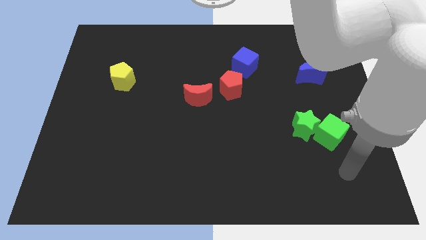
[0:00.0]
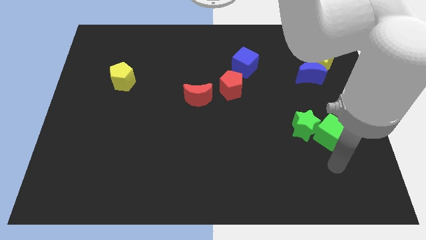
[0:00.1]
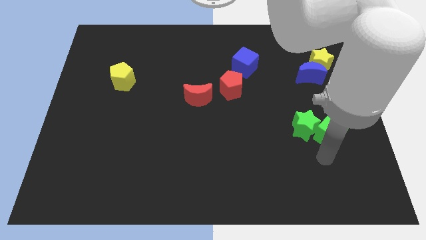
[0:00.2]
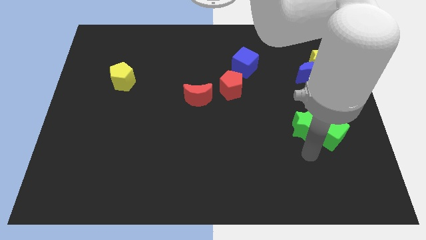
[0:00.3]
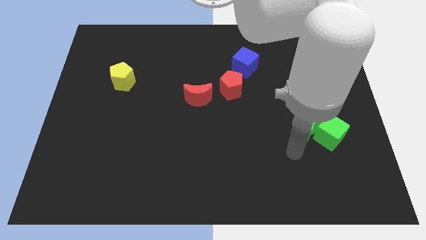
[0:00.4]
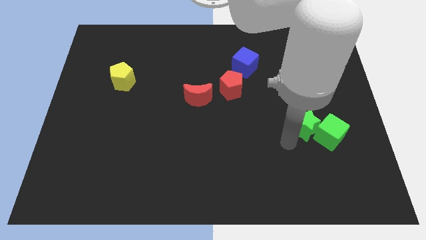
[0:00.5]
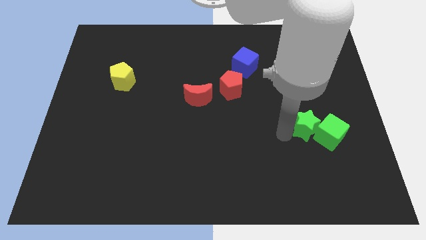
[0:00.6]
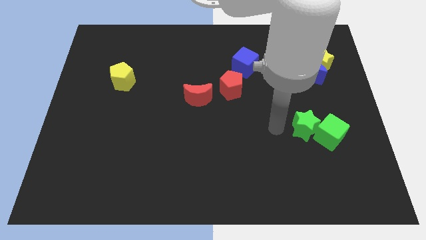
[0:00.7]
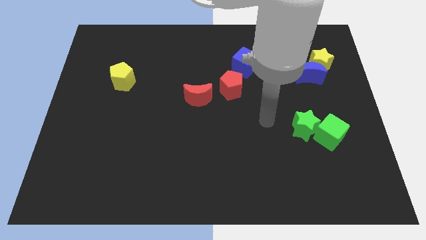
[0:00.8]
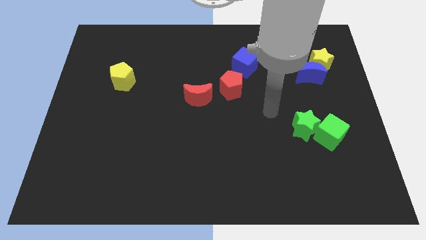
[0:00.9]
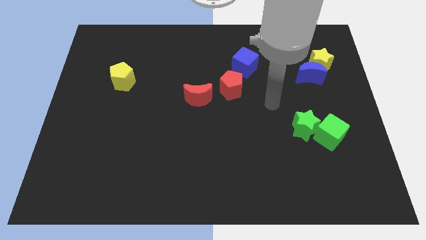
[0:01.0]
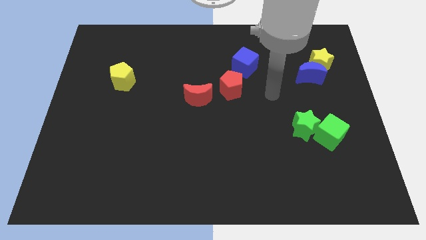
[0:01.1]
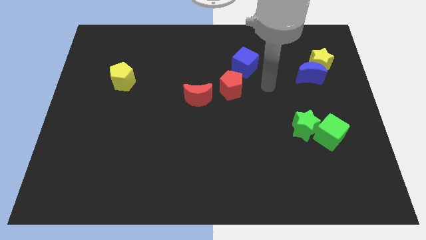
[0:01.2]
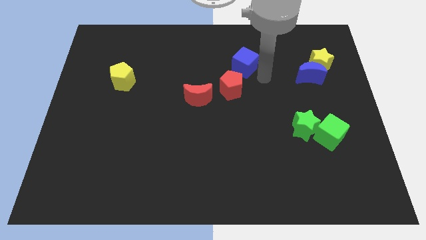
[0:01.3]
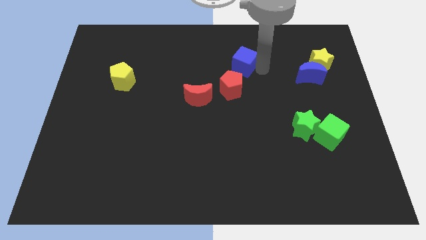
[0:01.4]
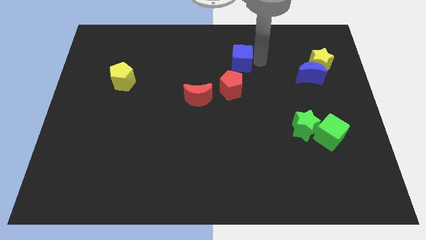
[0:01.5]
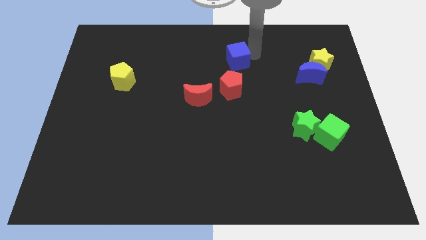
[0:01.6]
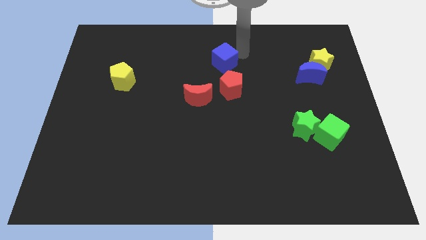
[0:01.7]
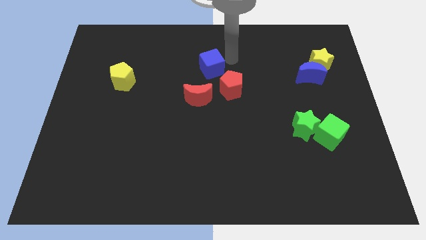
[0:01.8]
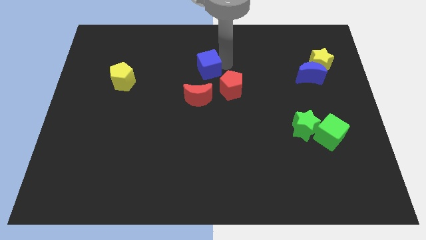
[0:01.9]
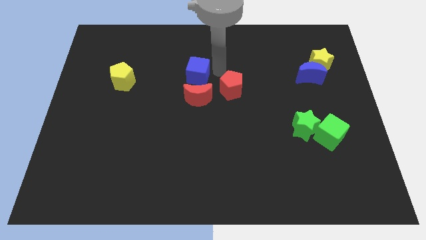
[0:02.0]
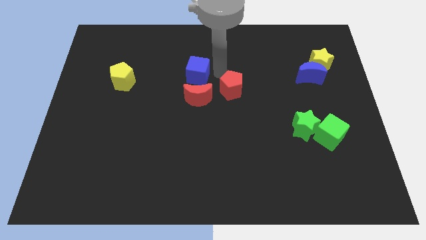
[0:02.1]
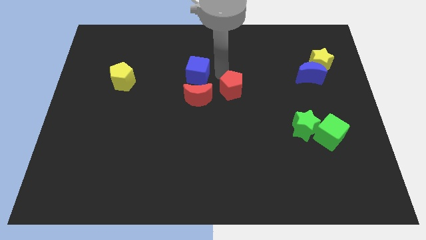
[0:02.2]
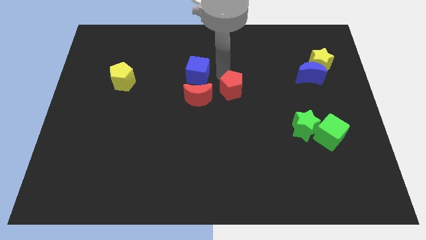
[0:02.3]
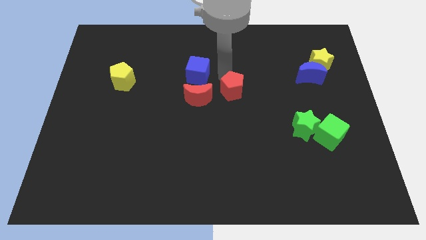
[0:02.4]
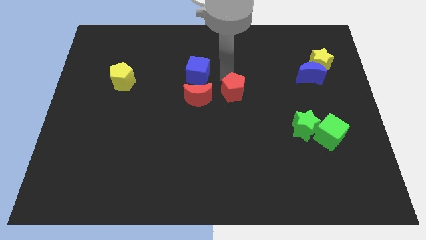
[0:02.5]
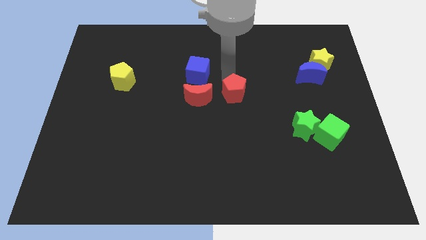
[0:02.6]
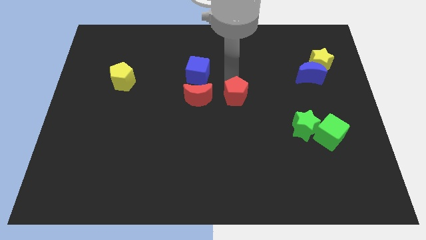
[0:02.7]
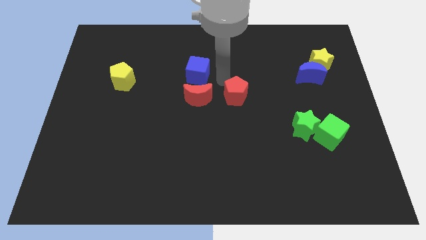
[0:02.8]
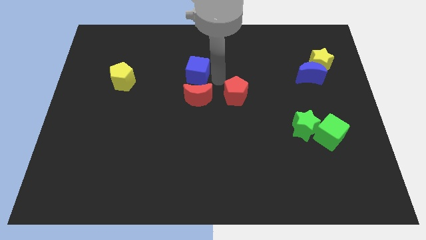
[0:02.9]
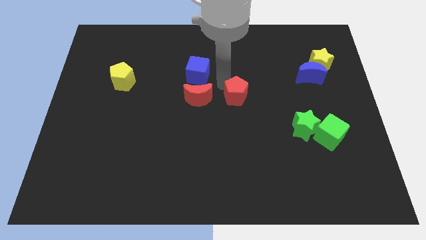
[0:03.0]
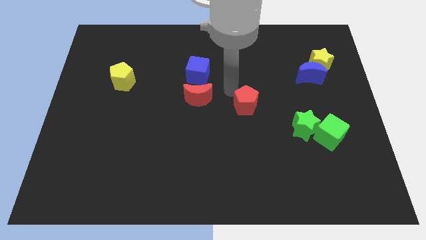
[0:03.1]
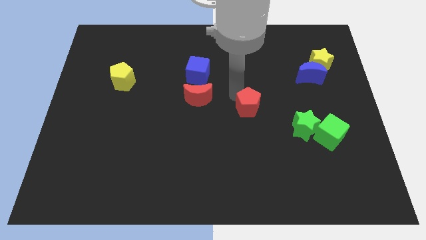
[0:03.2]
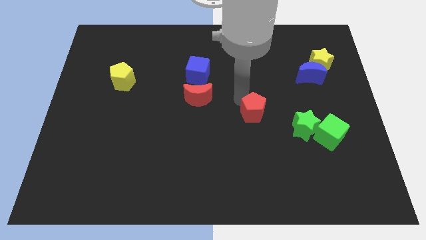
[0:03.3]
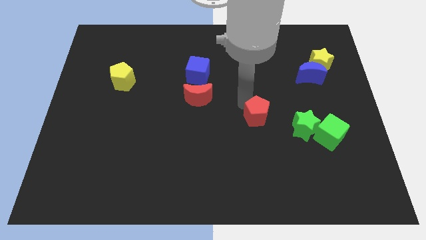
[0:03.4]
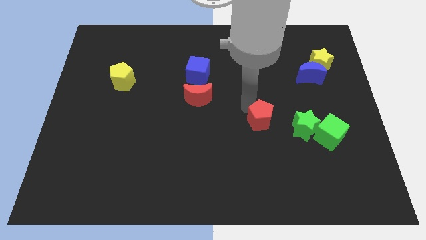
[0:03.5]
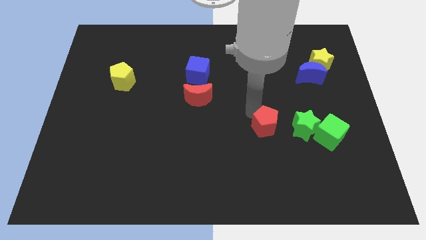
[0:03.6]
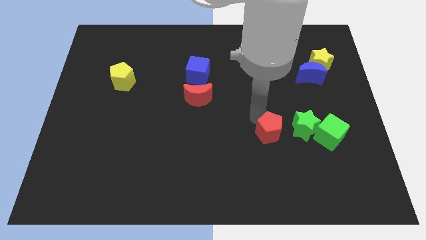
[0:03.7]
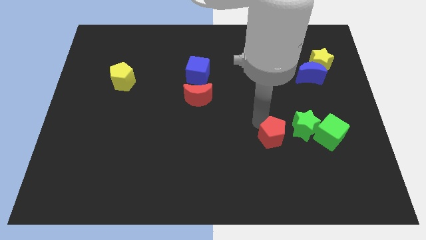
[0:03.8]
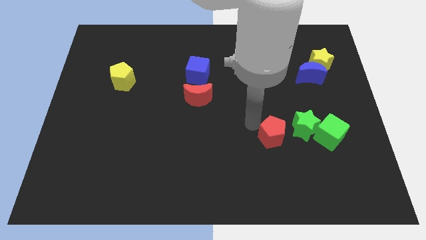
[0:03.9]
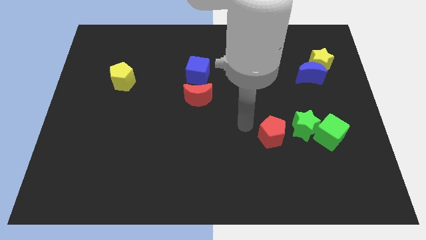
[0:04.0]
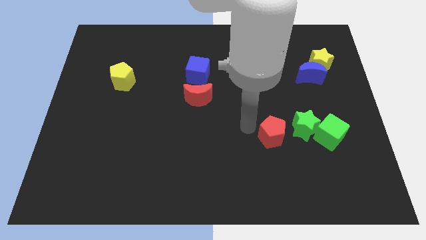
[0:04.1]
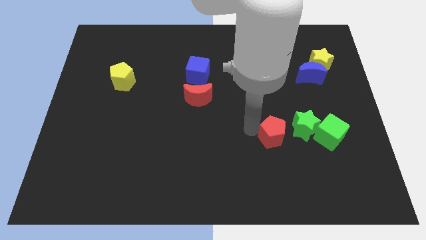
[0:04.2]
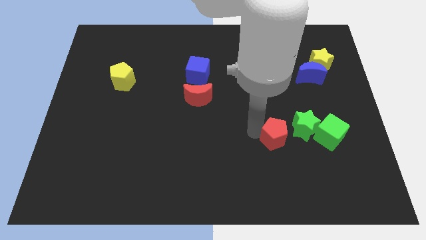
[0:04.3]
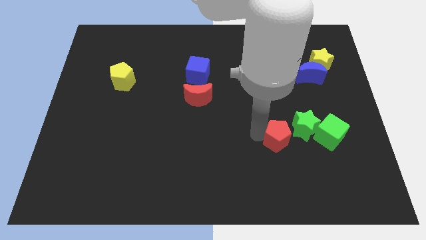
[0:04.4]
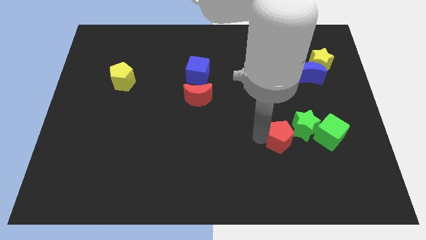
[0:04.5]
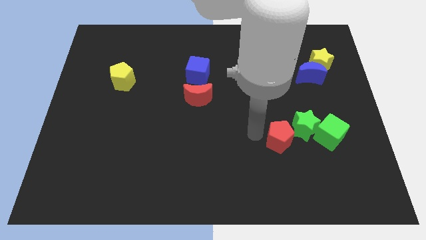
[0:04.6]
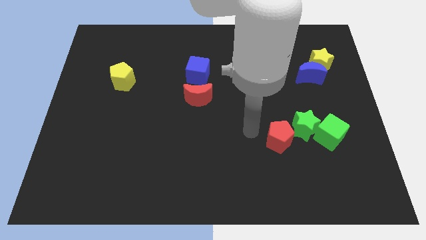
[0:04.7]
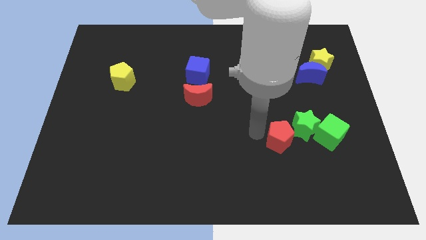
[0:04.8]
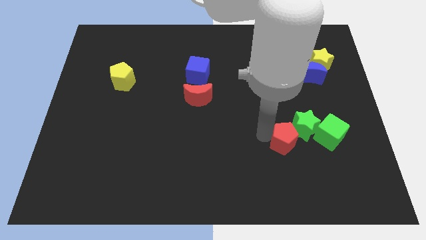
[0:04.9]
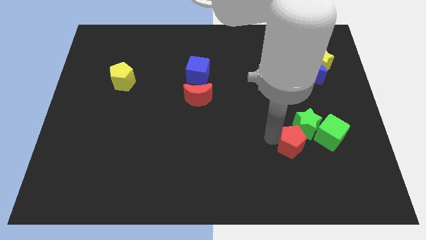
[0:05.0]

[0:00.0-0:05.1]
slide the red pentagon diagonally downwards and to the right

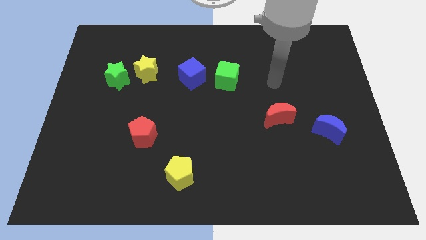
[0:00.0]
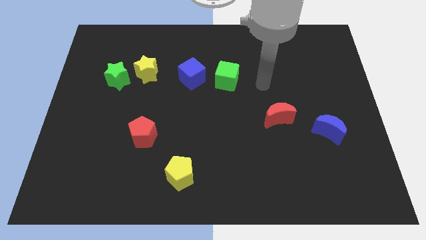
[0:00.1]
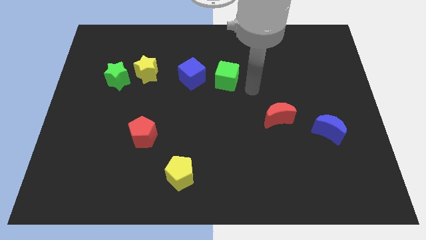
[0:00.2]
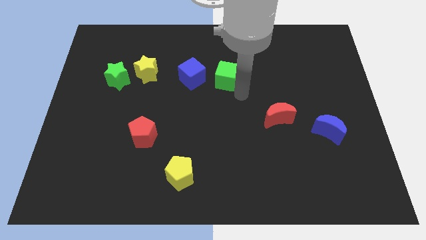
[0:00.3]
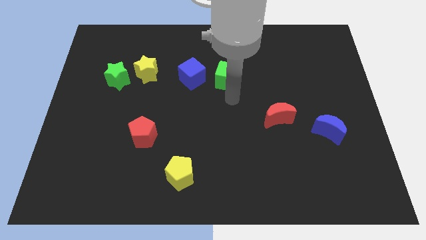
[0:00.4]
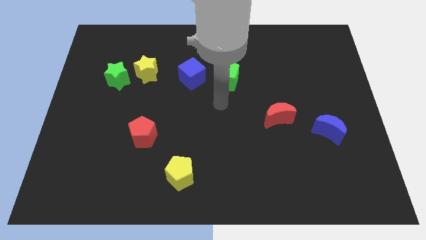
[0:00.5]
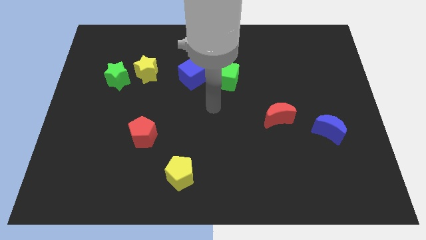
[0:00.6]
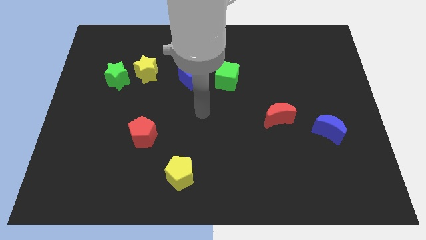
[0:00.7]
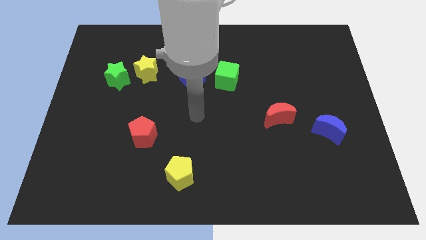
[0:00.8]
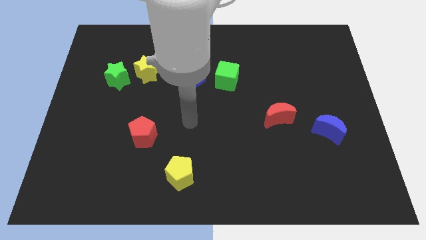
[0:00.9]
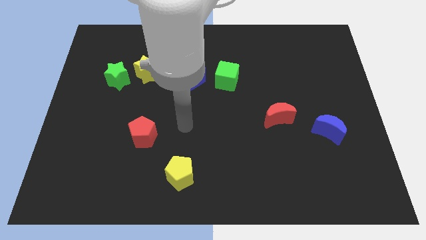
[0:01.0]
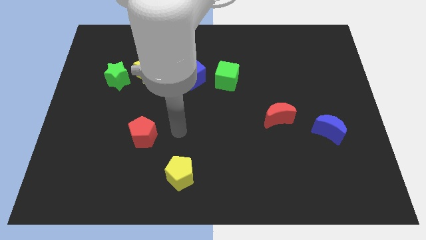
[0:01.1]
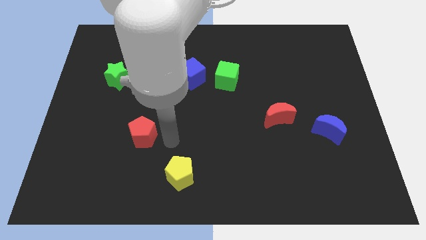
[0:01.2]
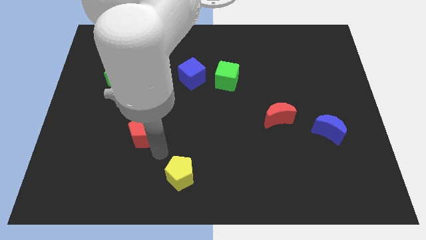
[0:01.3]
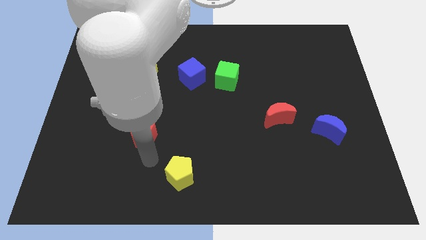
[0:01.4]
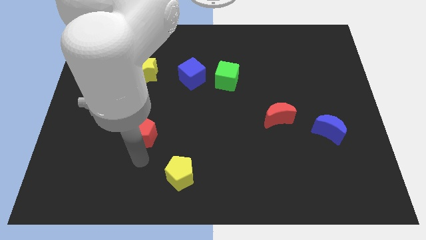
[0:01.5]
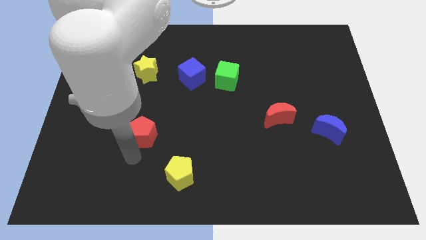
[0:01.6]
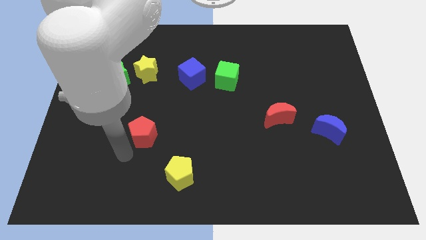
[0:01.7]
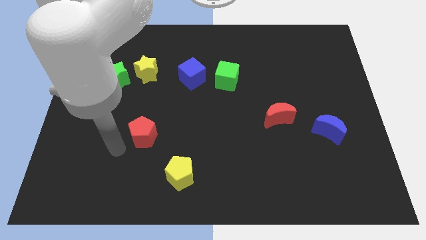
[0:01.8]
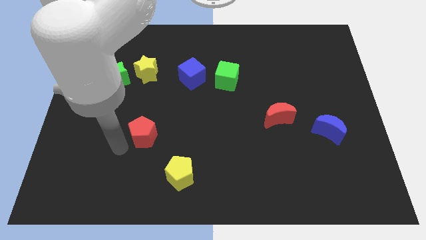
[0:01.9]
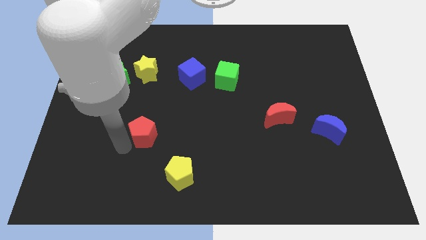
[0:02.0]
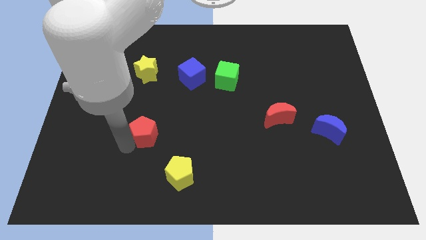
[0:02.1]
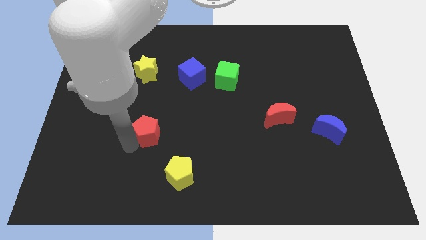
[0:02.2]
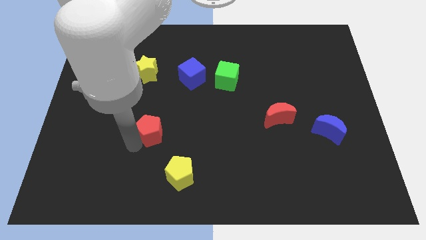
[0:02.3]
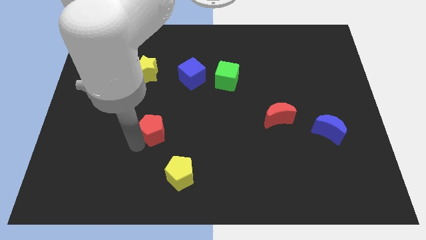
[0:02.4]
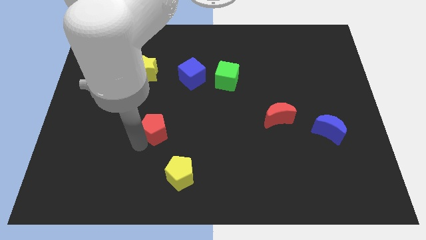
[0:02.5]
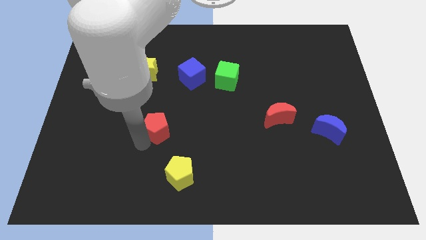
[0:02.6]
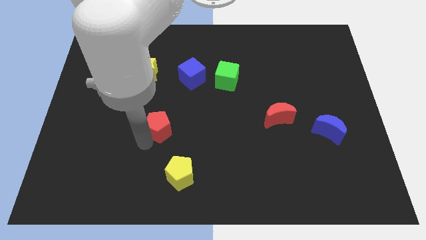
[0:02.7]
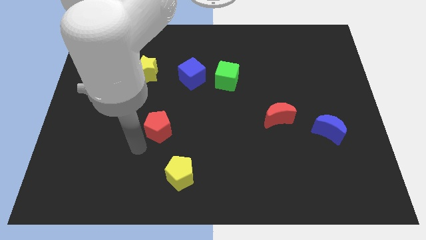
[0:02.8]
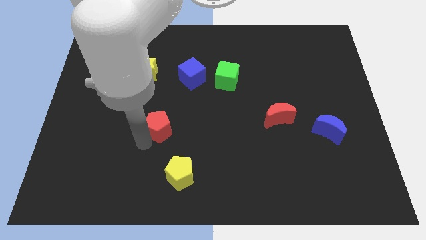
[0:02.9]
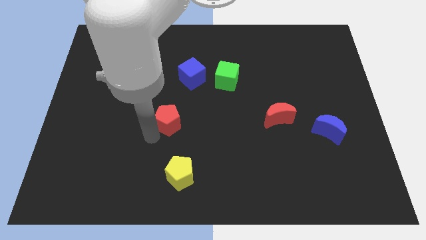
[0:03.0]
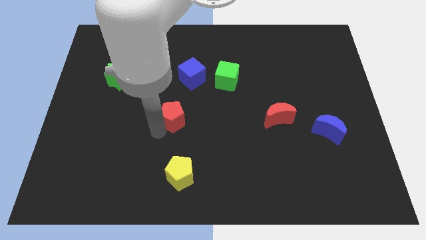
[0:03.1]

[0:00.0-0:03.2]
slightly slide the red pentagon diagonally upwards and right
